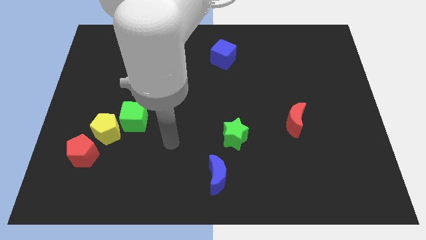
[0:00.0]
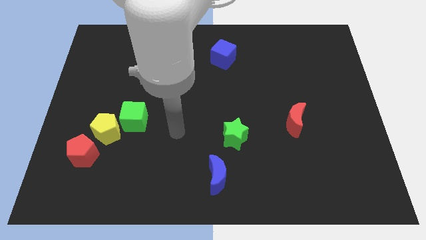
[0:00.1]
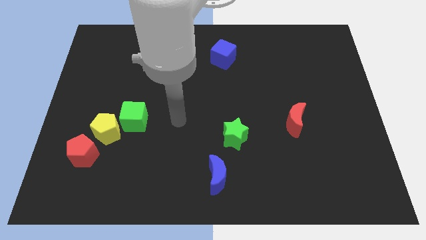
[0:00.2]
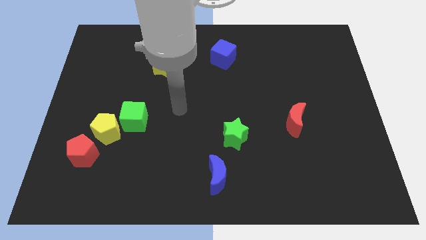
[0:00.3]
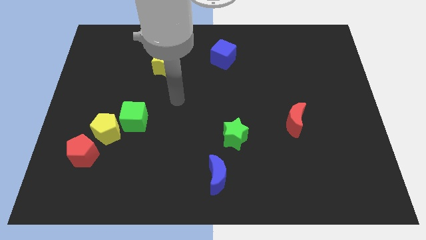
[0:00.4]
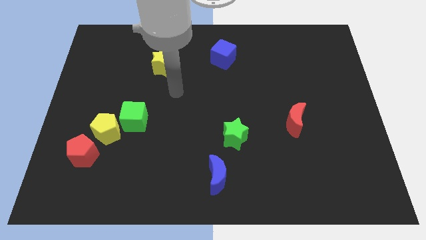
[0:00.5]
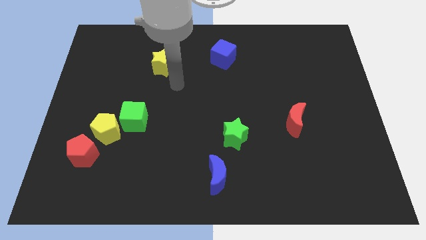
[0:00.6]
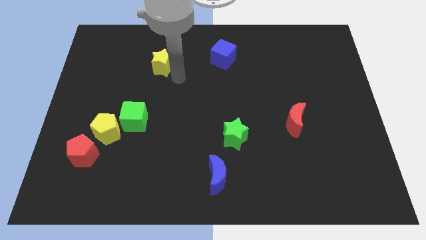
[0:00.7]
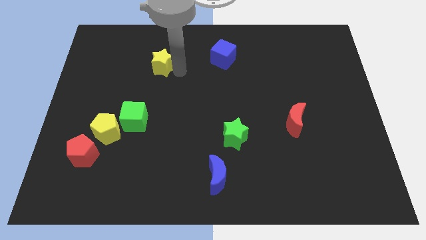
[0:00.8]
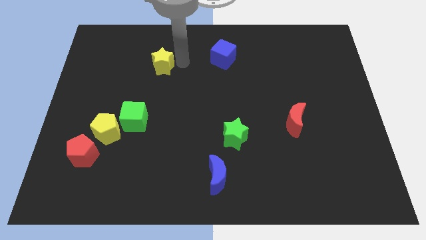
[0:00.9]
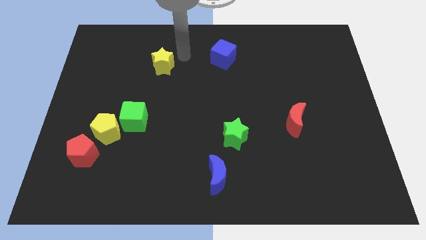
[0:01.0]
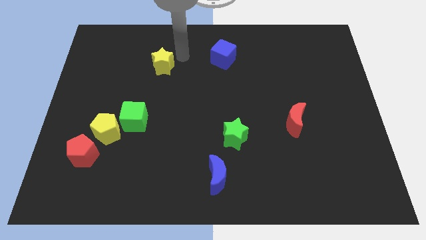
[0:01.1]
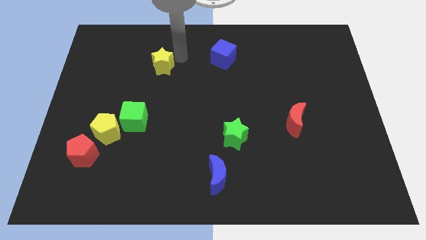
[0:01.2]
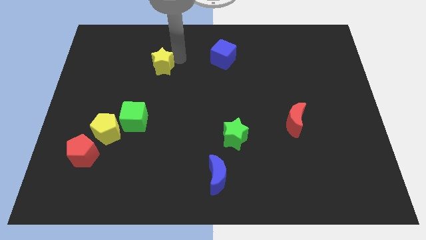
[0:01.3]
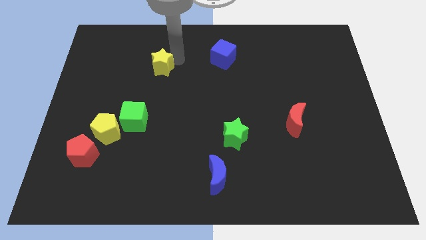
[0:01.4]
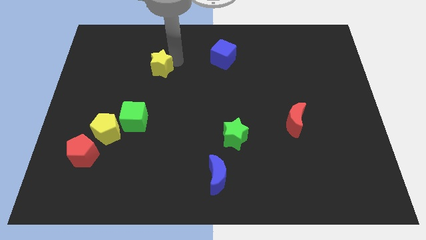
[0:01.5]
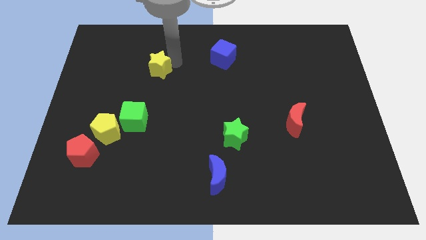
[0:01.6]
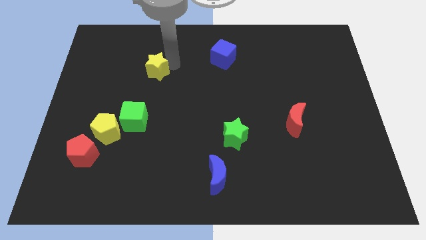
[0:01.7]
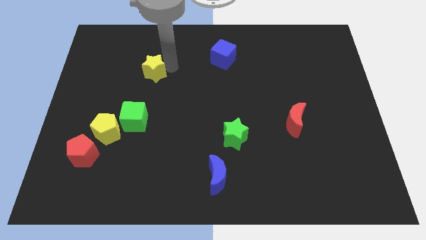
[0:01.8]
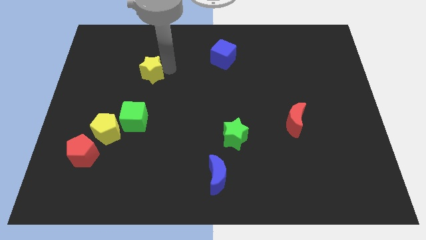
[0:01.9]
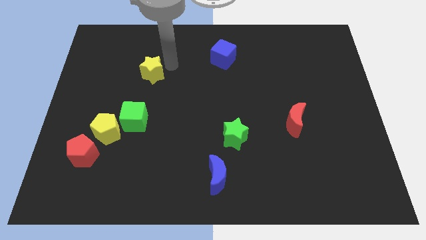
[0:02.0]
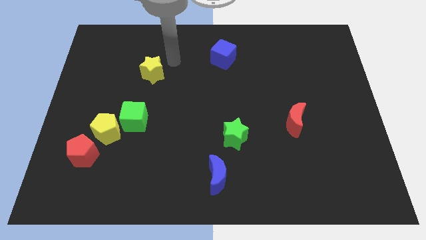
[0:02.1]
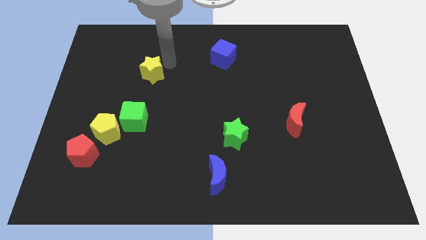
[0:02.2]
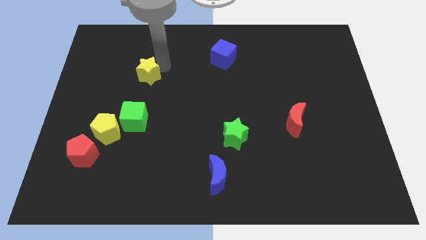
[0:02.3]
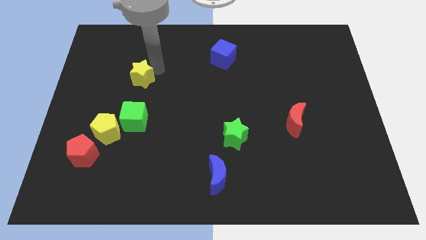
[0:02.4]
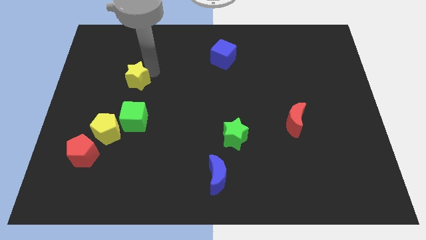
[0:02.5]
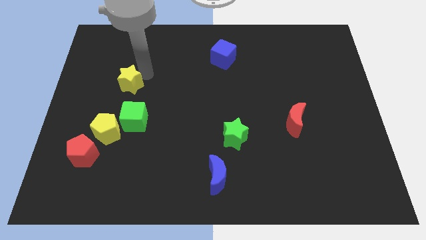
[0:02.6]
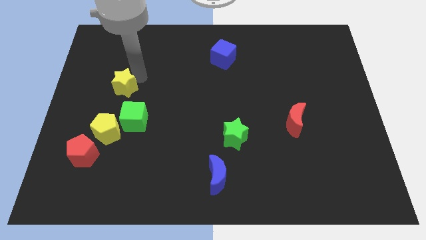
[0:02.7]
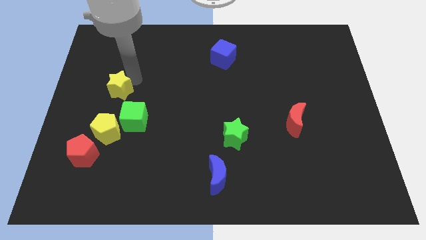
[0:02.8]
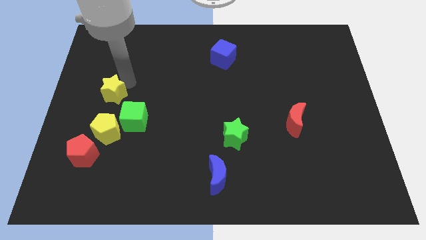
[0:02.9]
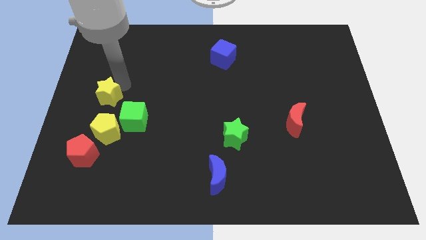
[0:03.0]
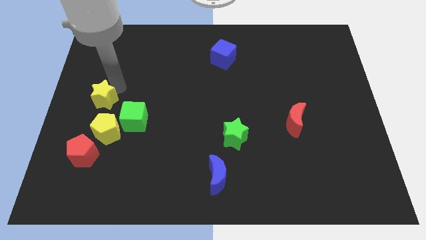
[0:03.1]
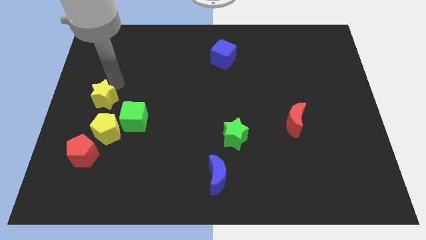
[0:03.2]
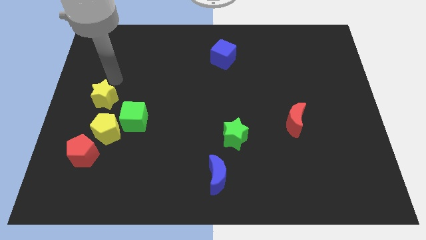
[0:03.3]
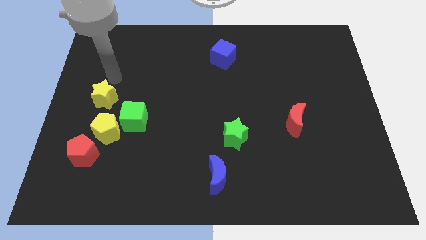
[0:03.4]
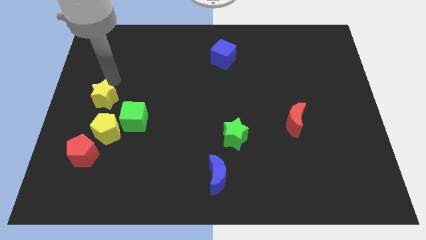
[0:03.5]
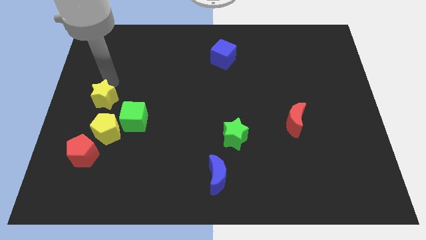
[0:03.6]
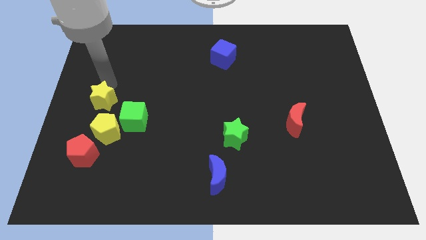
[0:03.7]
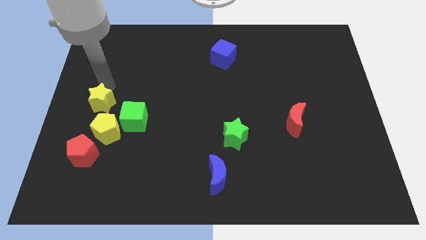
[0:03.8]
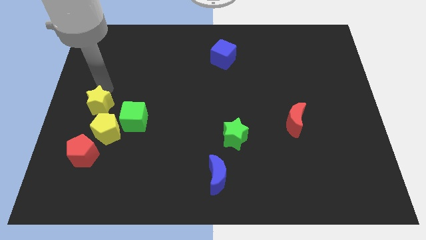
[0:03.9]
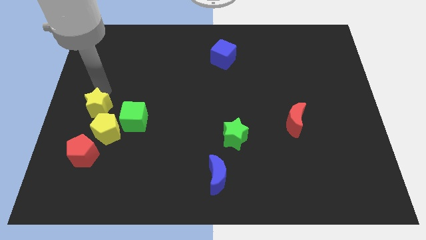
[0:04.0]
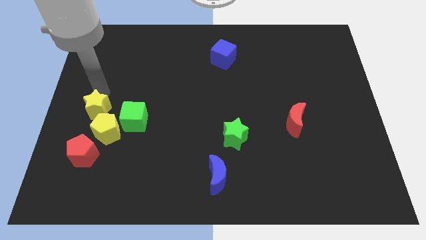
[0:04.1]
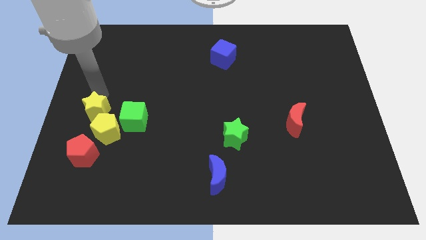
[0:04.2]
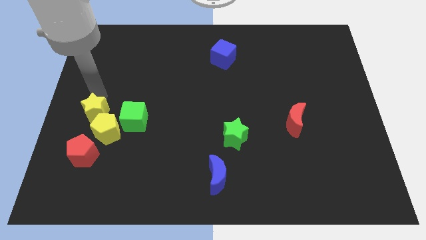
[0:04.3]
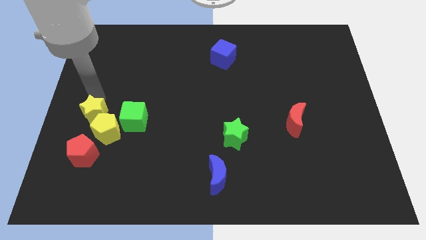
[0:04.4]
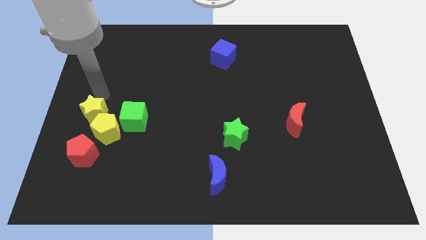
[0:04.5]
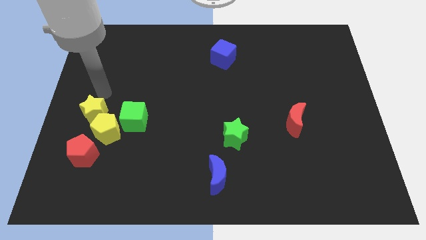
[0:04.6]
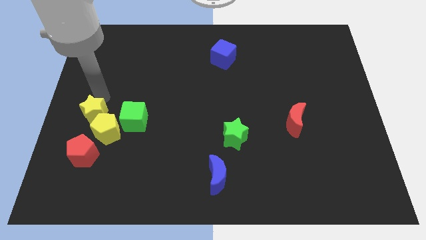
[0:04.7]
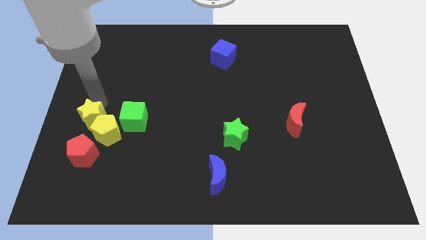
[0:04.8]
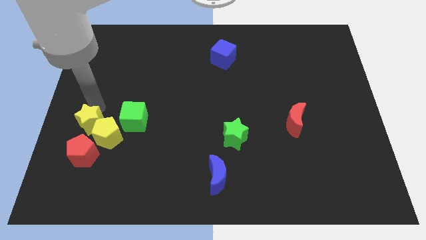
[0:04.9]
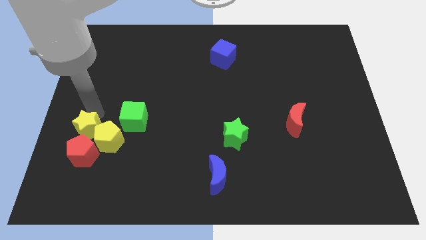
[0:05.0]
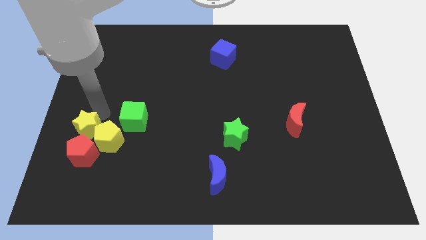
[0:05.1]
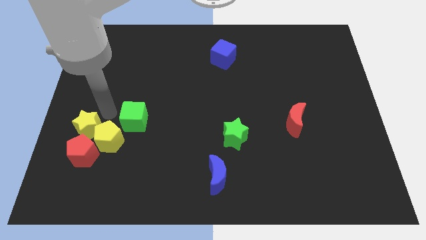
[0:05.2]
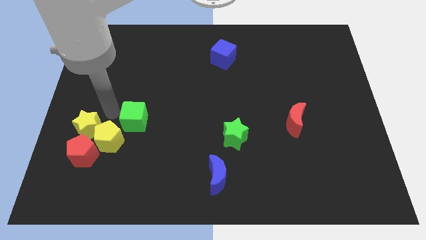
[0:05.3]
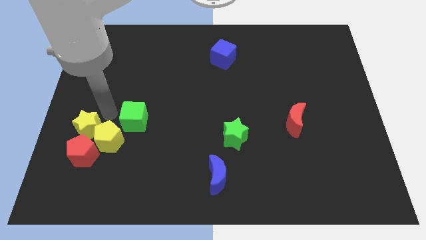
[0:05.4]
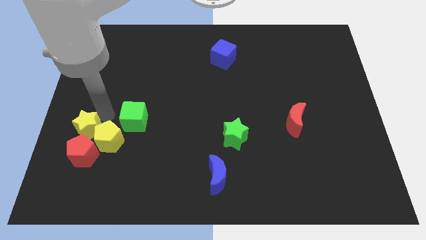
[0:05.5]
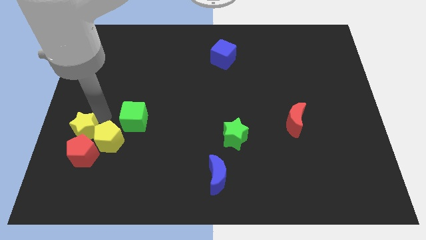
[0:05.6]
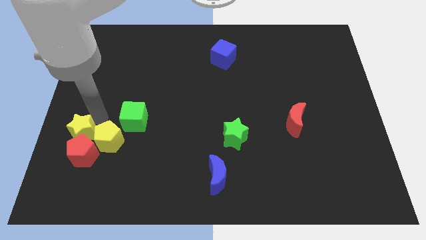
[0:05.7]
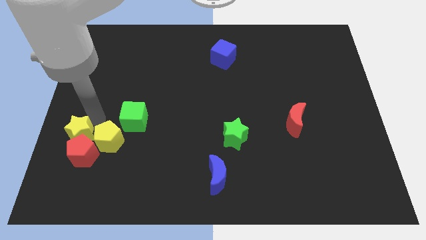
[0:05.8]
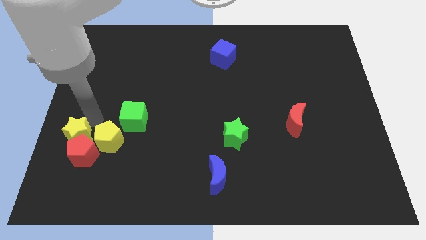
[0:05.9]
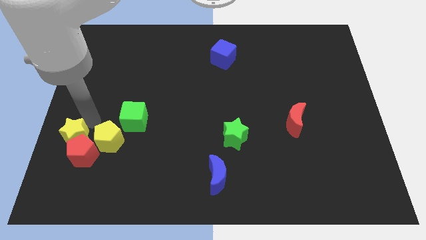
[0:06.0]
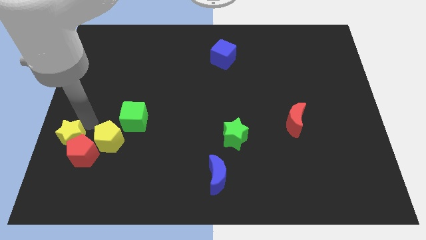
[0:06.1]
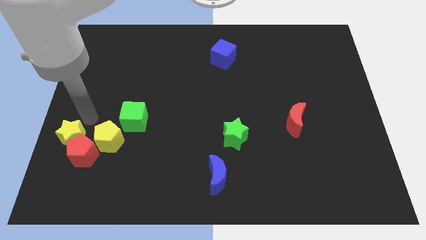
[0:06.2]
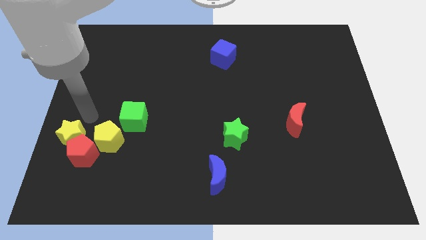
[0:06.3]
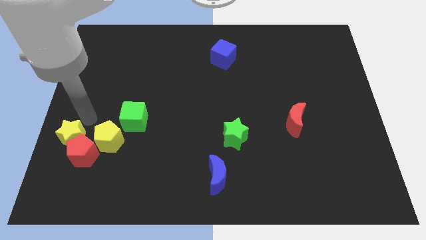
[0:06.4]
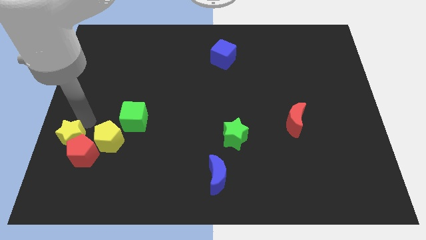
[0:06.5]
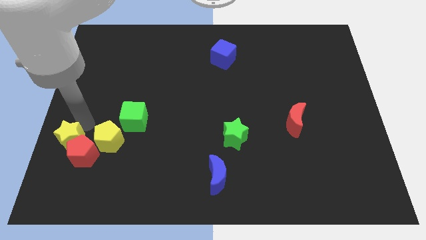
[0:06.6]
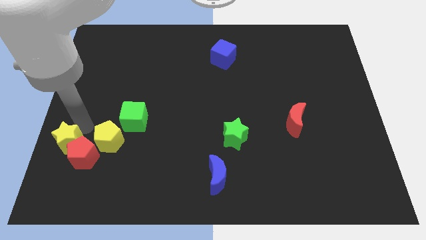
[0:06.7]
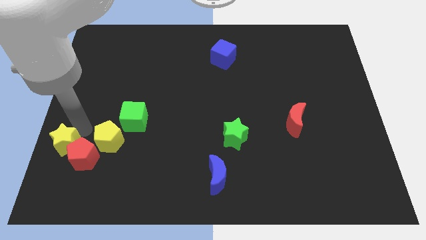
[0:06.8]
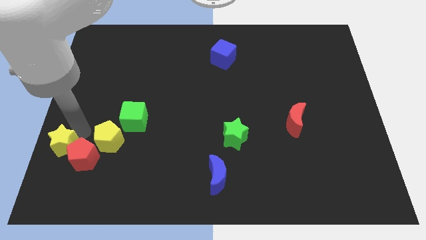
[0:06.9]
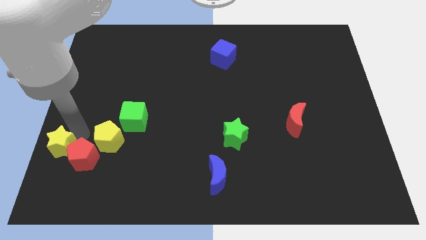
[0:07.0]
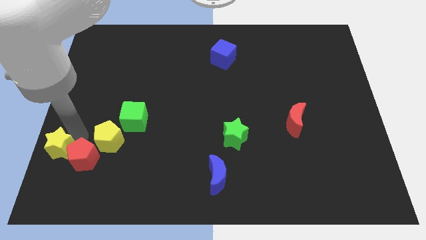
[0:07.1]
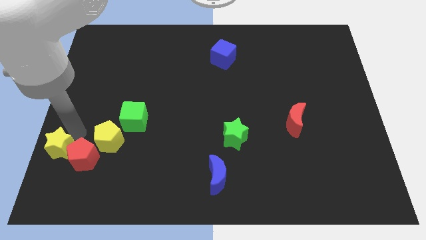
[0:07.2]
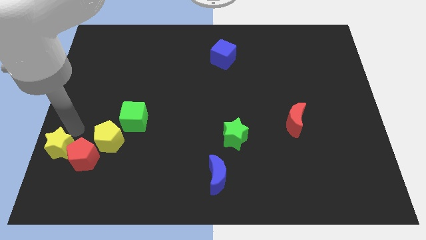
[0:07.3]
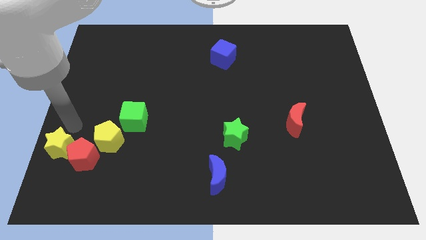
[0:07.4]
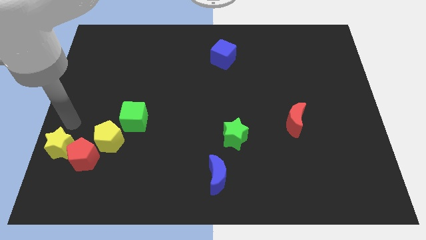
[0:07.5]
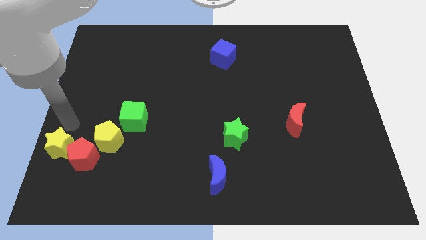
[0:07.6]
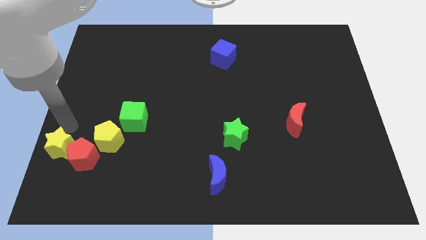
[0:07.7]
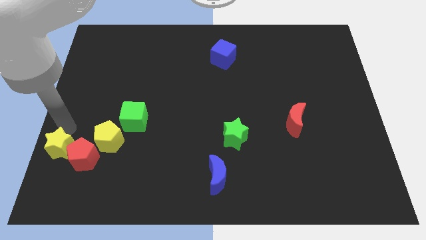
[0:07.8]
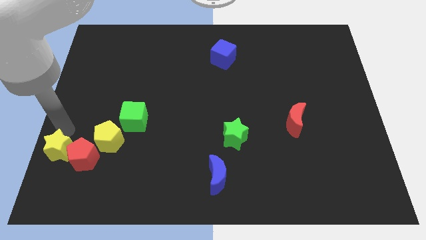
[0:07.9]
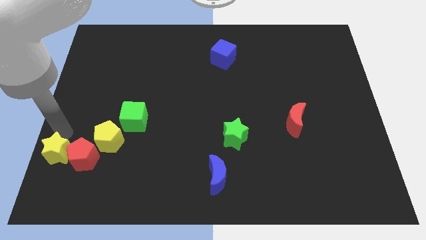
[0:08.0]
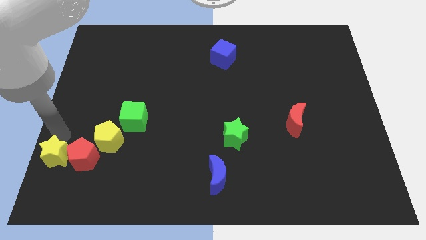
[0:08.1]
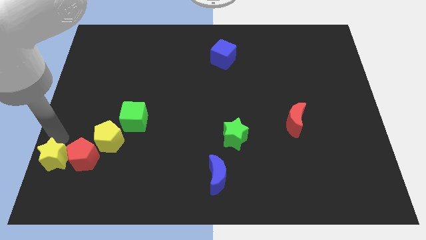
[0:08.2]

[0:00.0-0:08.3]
slide the yellow star to the bottom left corner
